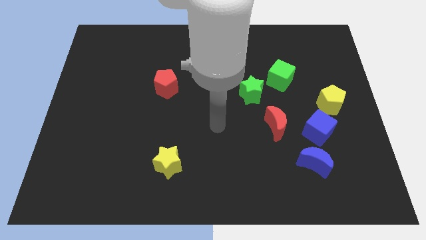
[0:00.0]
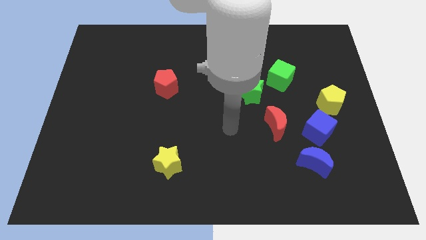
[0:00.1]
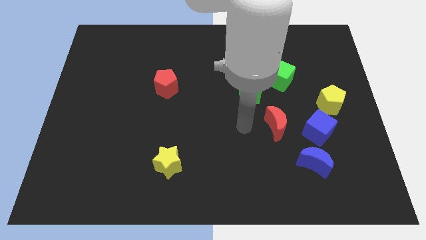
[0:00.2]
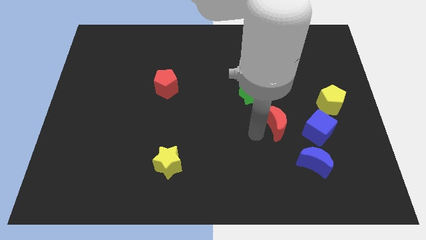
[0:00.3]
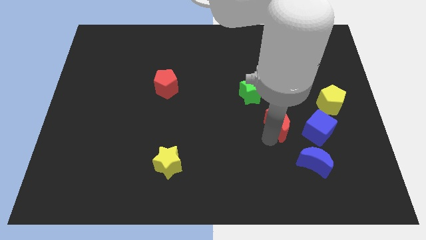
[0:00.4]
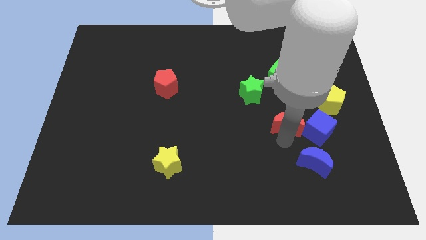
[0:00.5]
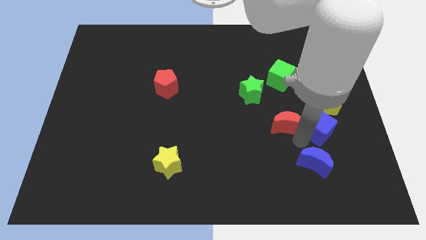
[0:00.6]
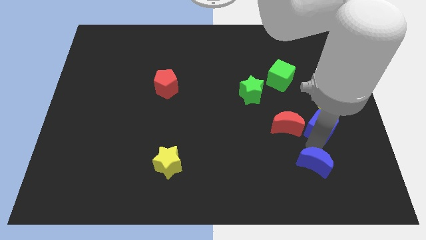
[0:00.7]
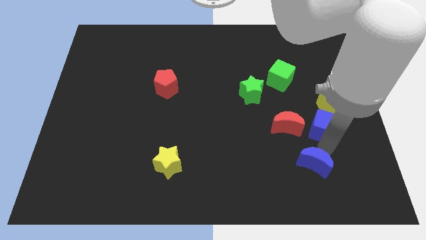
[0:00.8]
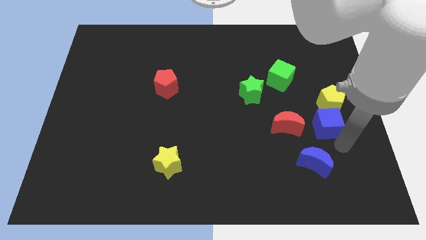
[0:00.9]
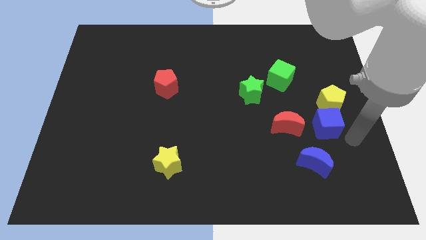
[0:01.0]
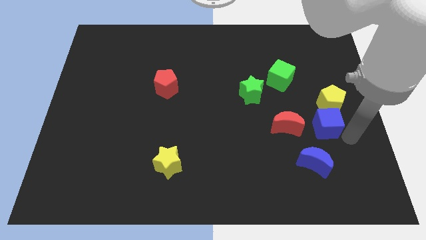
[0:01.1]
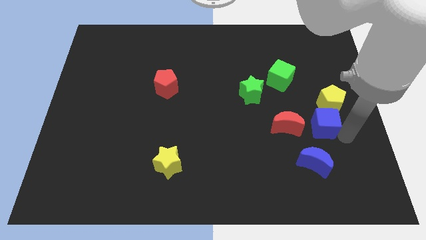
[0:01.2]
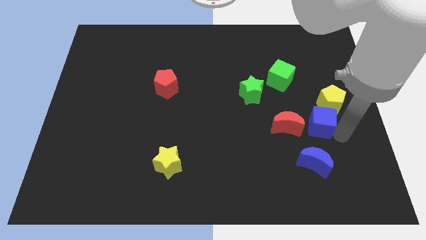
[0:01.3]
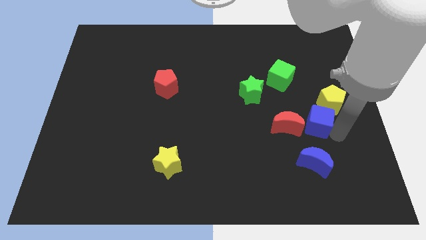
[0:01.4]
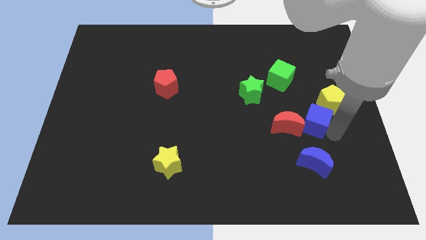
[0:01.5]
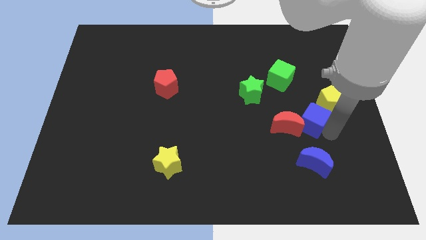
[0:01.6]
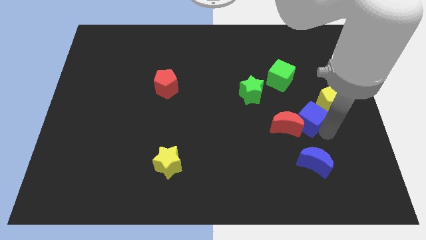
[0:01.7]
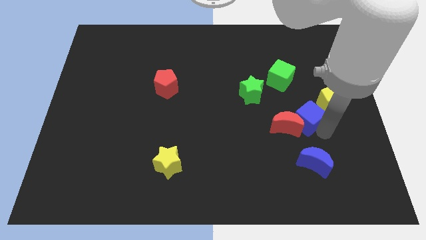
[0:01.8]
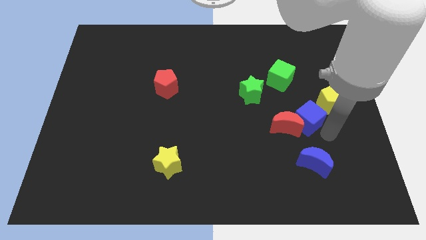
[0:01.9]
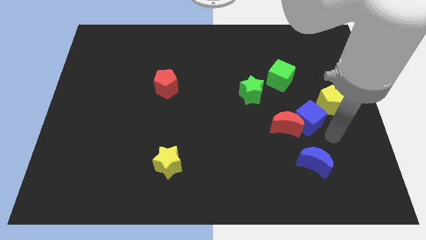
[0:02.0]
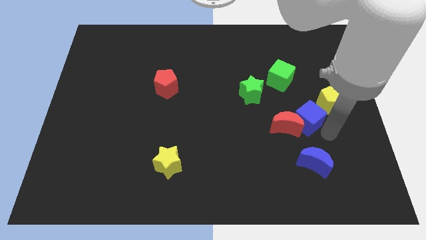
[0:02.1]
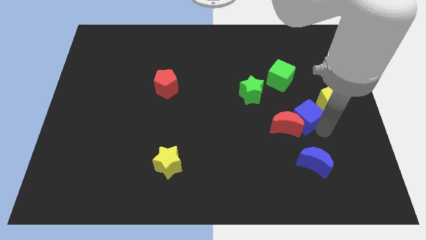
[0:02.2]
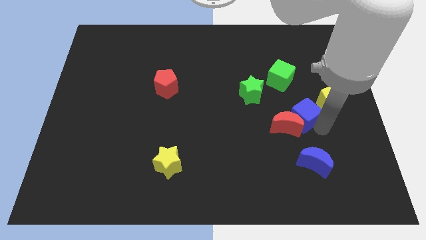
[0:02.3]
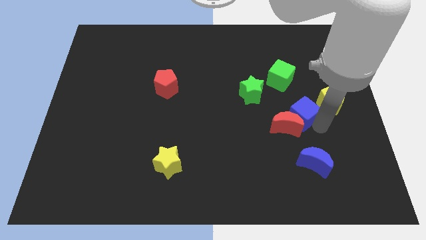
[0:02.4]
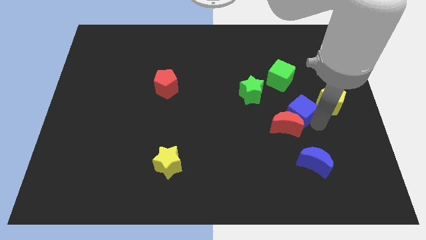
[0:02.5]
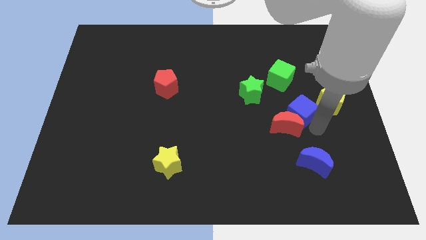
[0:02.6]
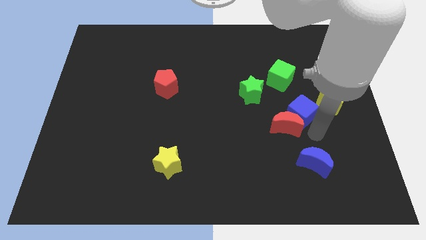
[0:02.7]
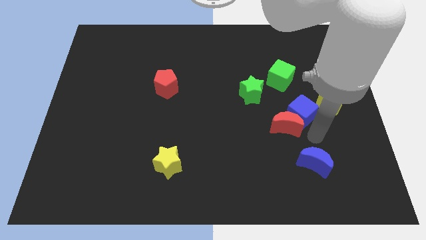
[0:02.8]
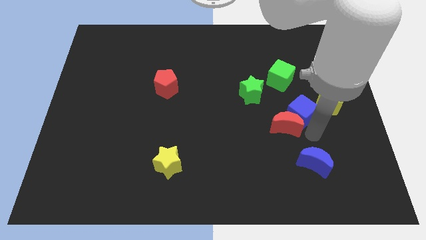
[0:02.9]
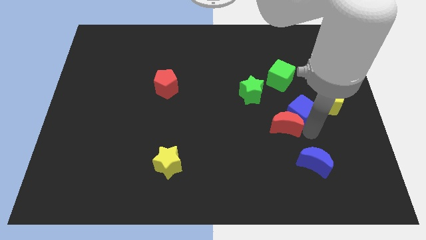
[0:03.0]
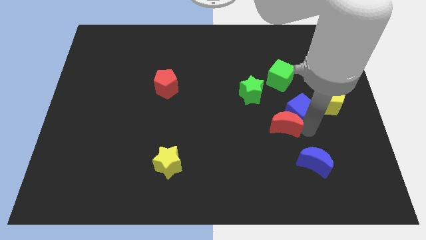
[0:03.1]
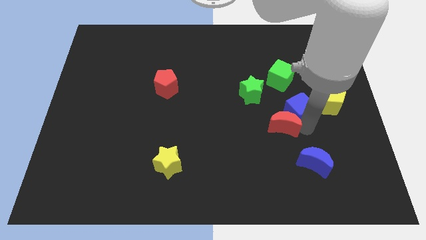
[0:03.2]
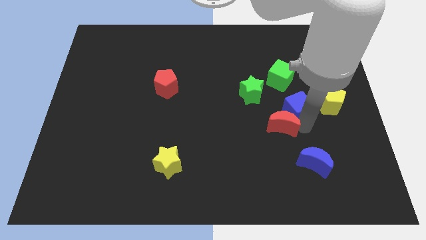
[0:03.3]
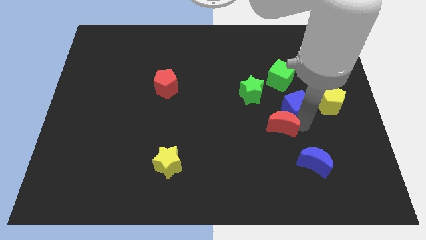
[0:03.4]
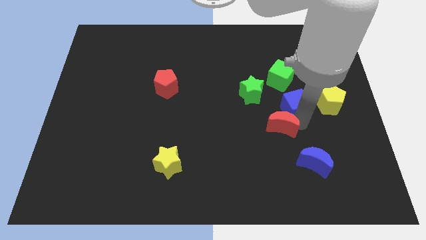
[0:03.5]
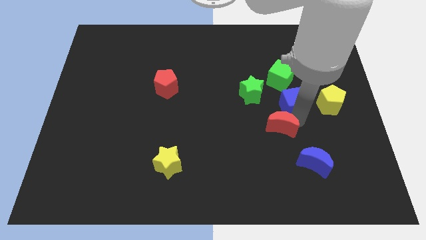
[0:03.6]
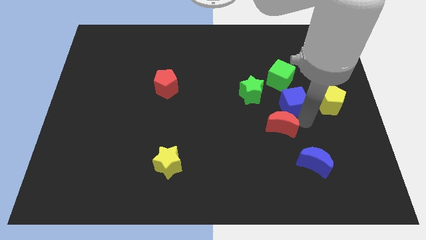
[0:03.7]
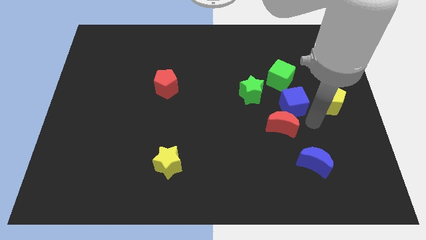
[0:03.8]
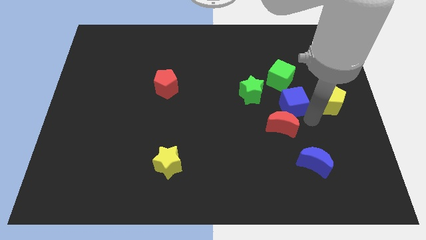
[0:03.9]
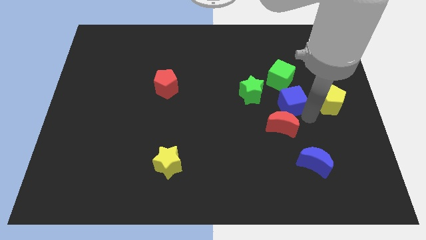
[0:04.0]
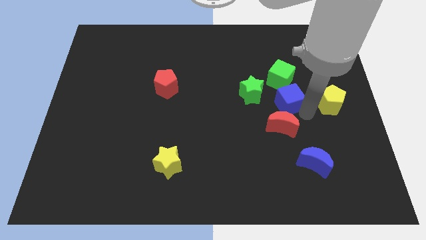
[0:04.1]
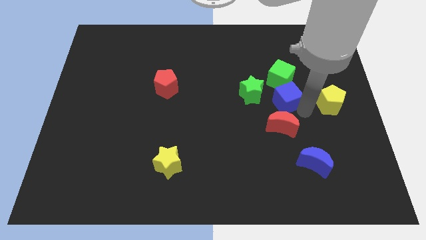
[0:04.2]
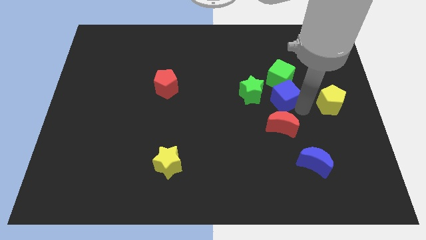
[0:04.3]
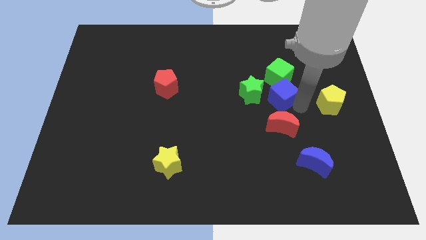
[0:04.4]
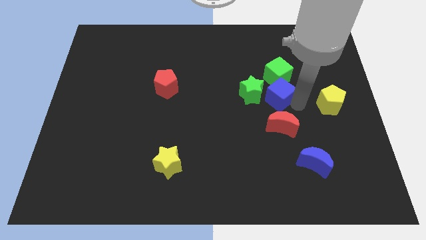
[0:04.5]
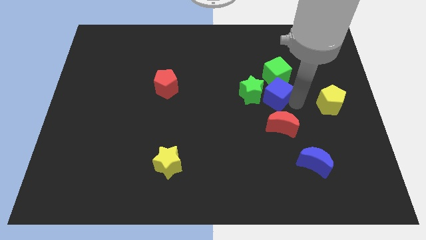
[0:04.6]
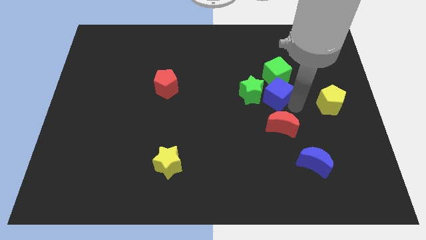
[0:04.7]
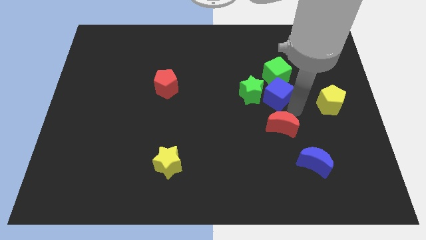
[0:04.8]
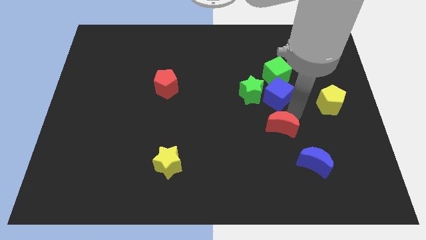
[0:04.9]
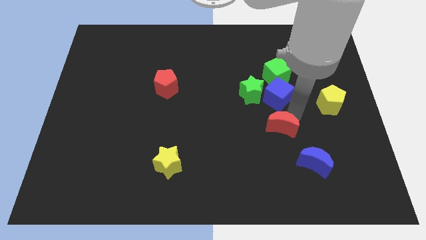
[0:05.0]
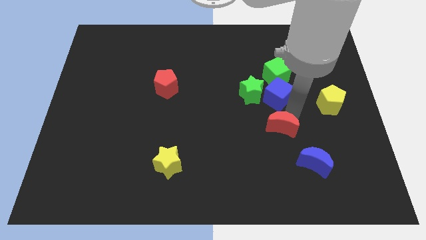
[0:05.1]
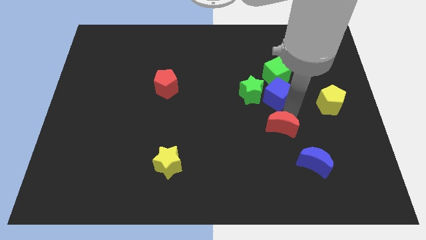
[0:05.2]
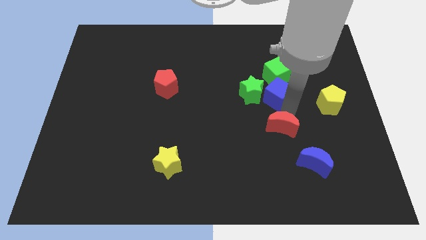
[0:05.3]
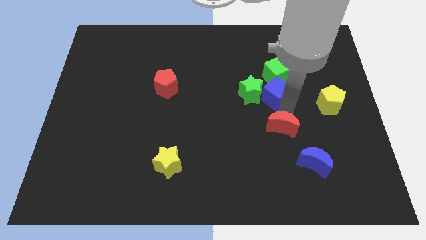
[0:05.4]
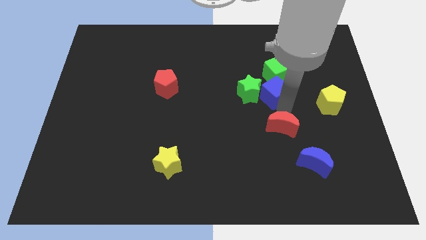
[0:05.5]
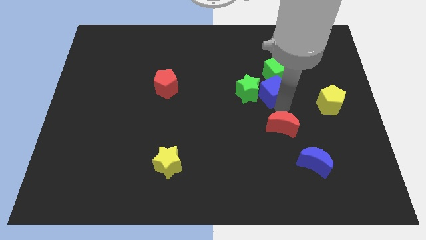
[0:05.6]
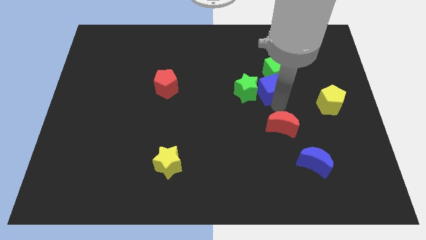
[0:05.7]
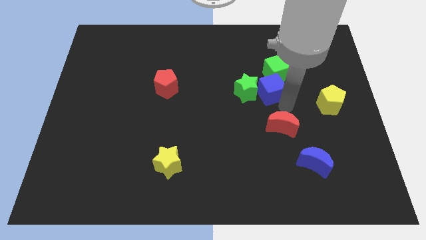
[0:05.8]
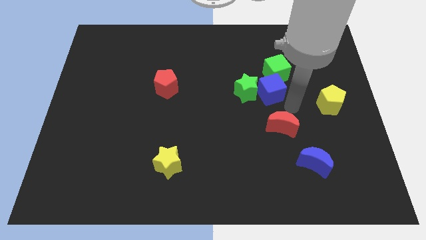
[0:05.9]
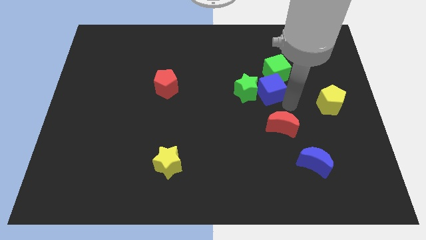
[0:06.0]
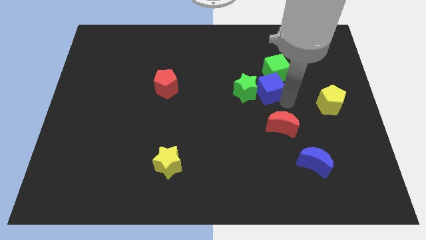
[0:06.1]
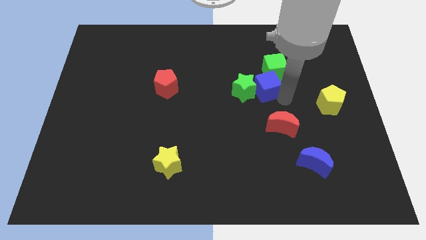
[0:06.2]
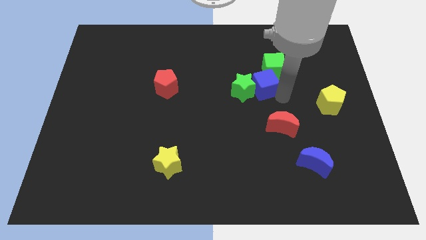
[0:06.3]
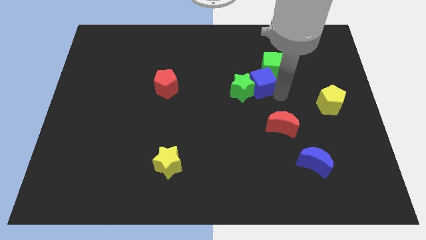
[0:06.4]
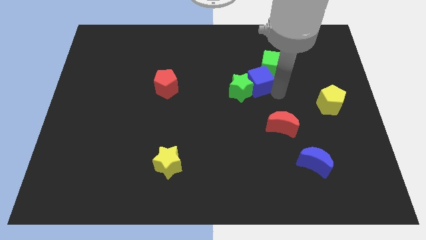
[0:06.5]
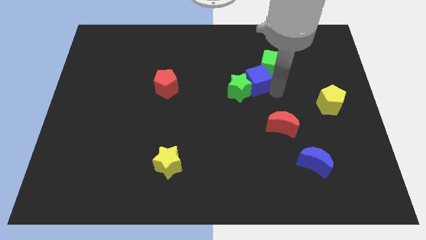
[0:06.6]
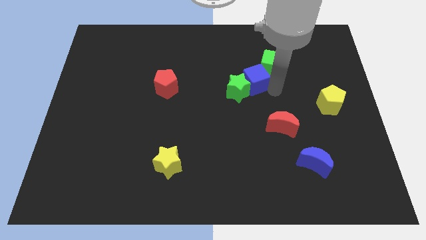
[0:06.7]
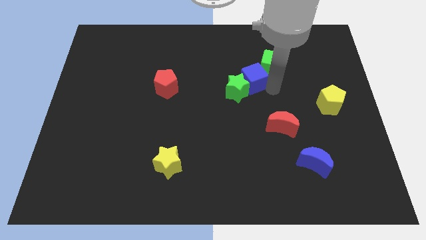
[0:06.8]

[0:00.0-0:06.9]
push the blue cube diagonally up and left

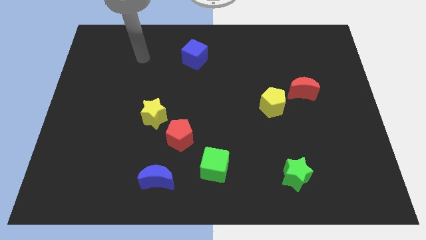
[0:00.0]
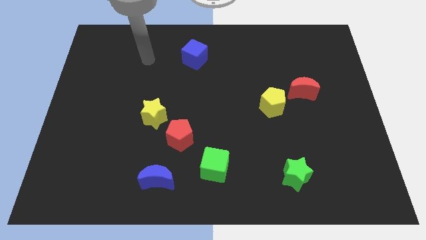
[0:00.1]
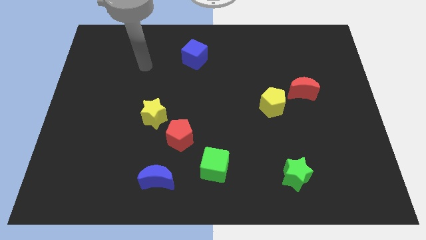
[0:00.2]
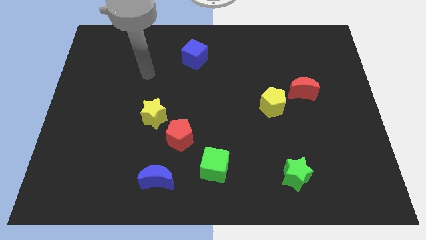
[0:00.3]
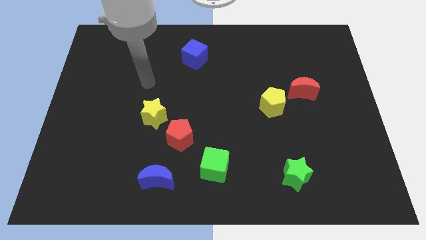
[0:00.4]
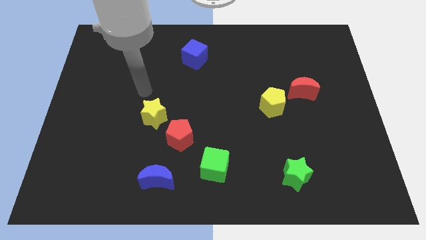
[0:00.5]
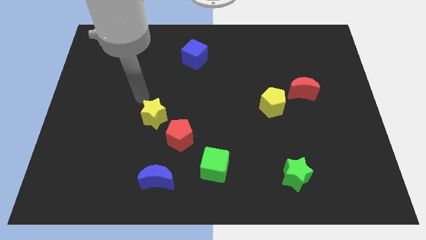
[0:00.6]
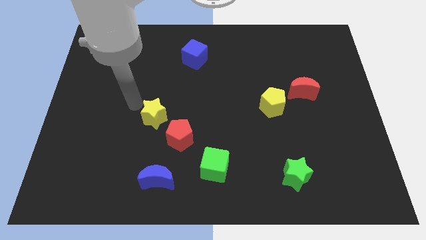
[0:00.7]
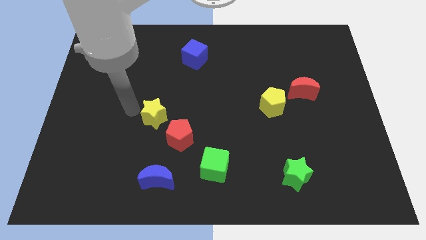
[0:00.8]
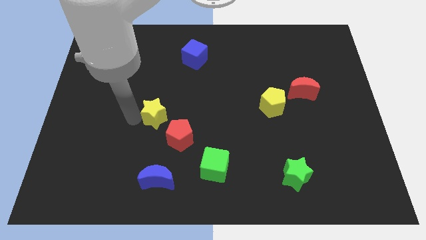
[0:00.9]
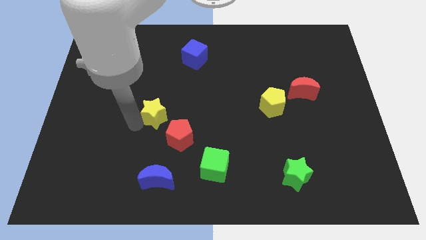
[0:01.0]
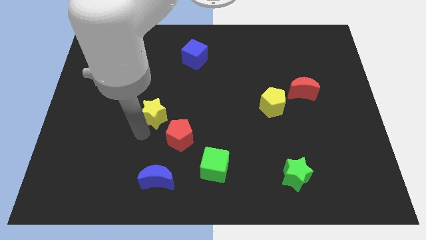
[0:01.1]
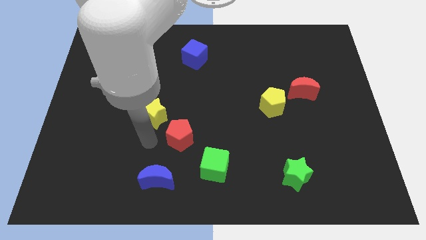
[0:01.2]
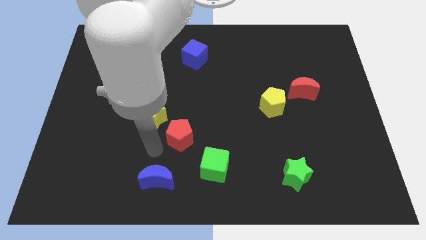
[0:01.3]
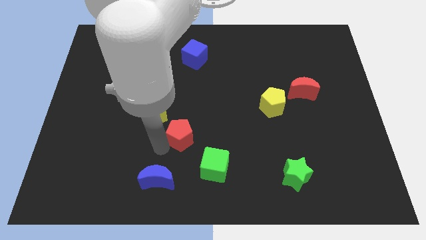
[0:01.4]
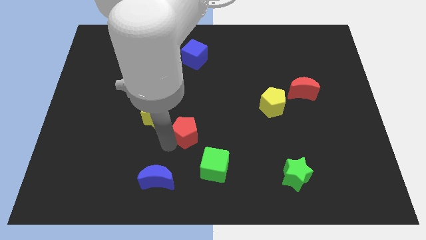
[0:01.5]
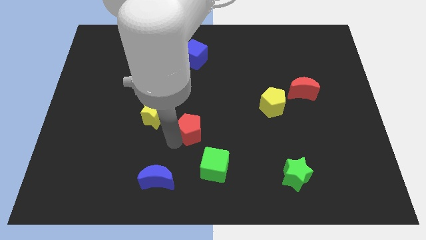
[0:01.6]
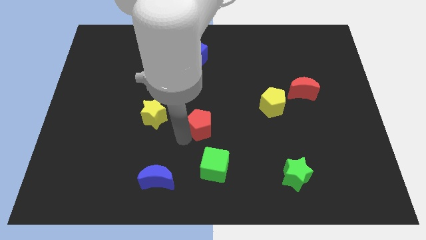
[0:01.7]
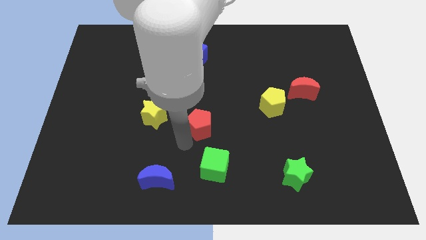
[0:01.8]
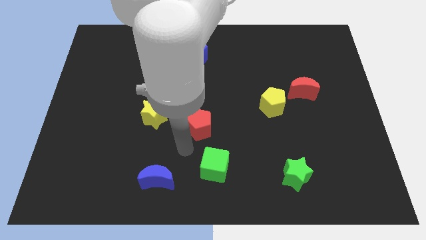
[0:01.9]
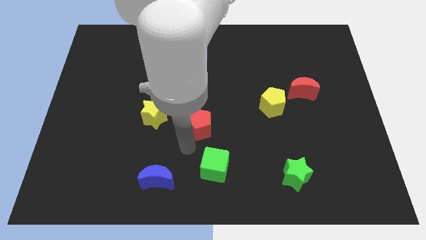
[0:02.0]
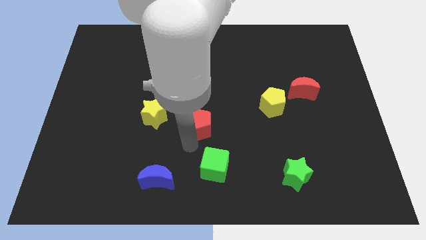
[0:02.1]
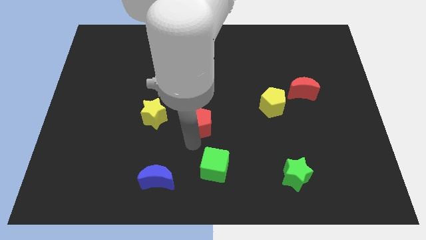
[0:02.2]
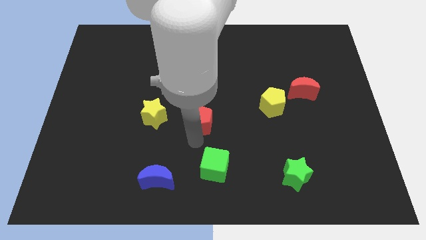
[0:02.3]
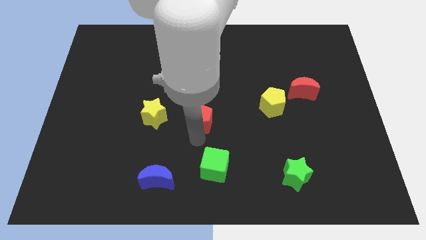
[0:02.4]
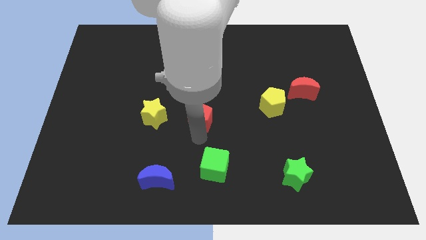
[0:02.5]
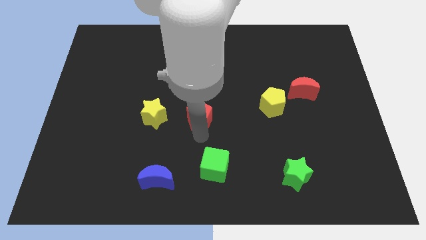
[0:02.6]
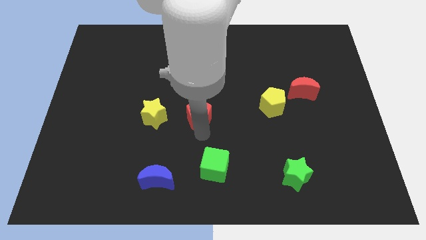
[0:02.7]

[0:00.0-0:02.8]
move the red pentagon up and then right slightly
